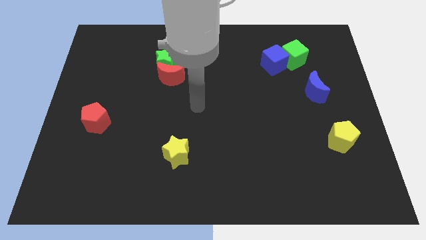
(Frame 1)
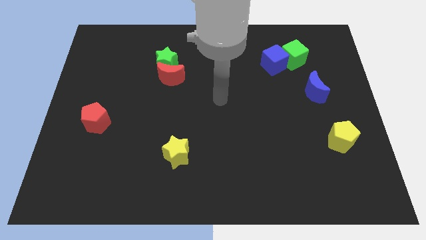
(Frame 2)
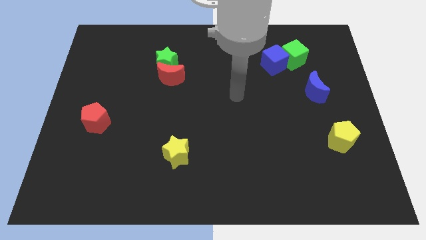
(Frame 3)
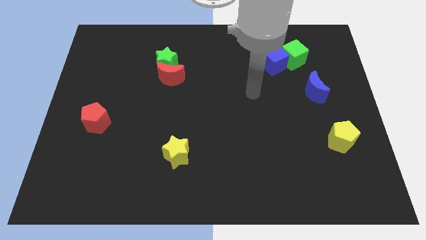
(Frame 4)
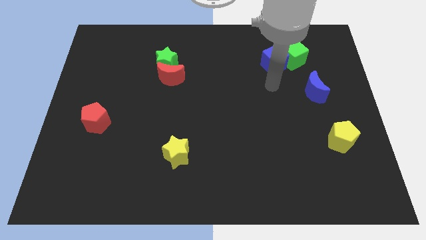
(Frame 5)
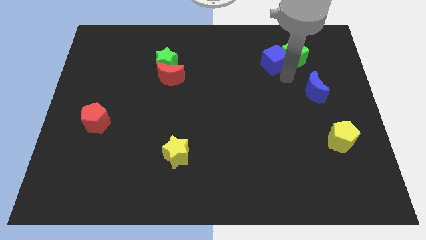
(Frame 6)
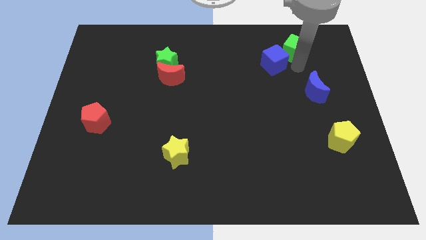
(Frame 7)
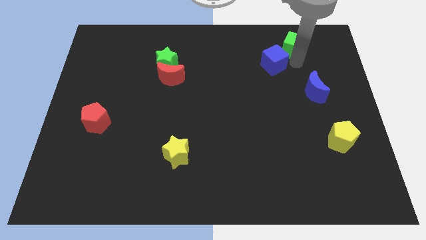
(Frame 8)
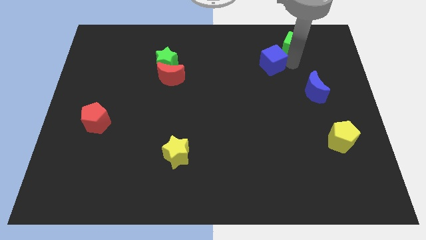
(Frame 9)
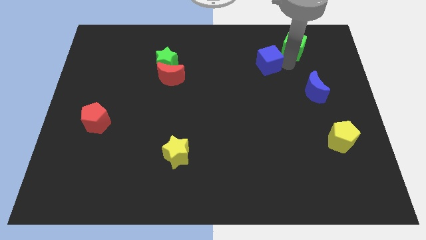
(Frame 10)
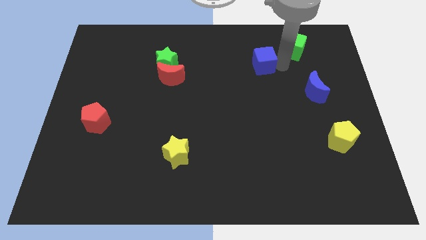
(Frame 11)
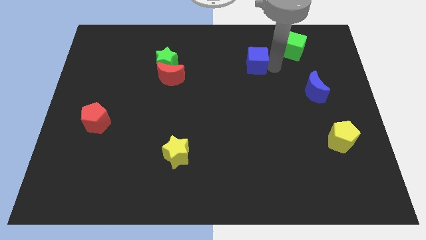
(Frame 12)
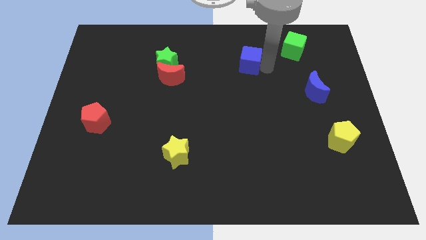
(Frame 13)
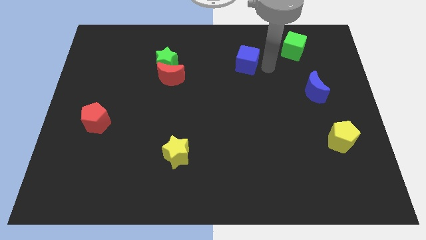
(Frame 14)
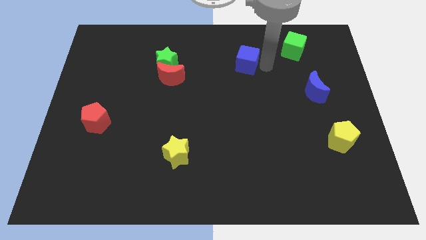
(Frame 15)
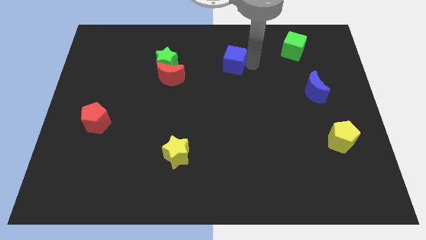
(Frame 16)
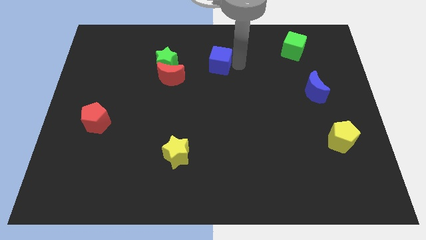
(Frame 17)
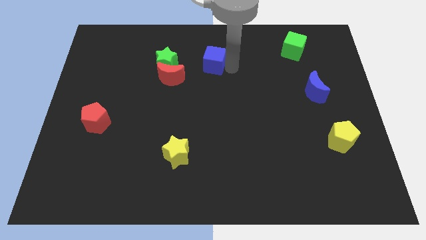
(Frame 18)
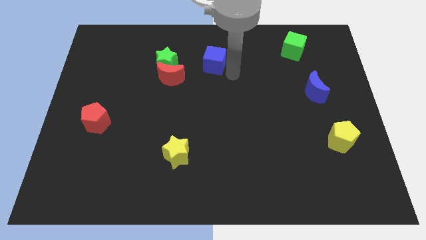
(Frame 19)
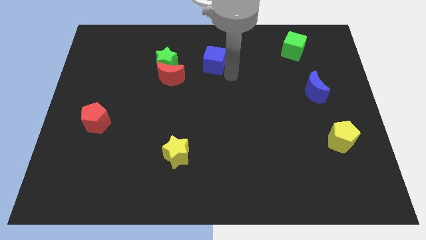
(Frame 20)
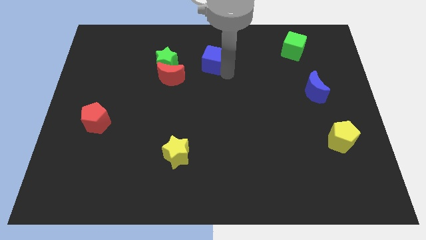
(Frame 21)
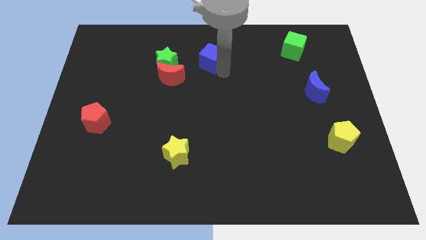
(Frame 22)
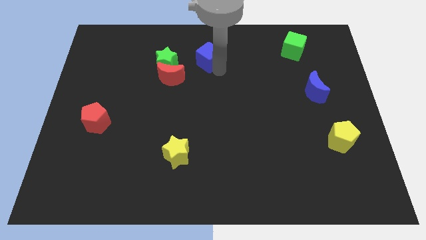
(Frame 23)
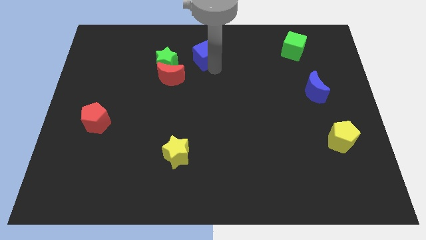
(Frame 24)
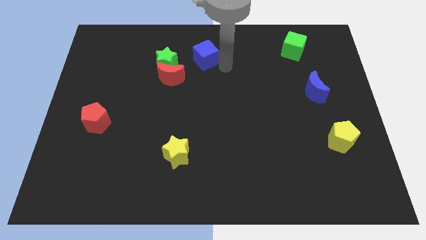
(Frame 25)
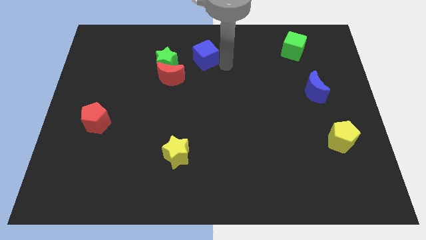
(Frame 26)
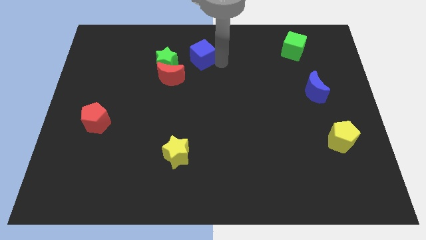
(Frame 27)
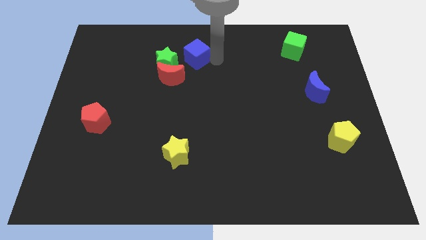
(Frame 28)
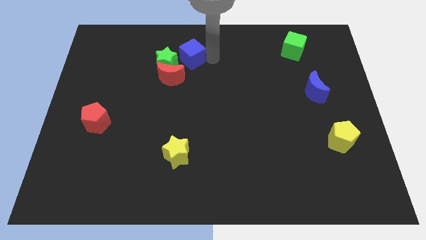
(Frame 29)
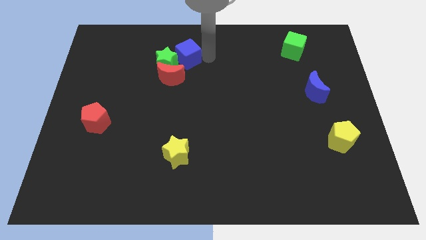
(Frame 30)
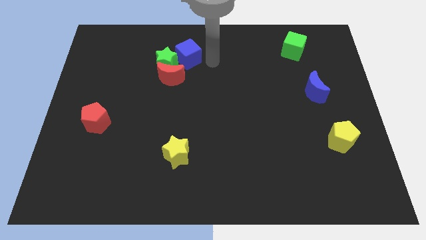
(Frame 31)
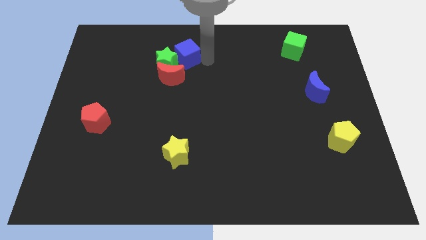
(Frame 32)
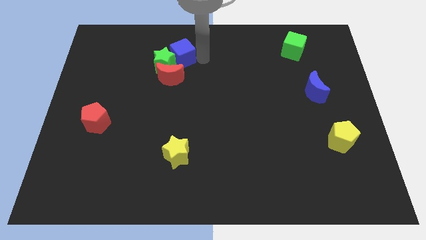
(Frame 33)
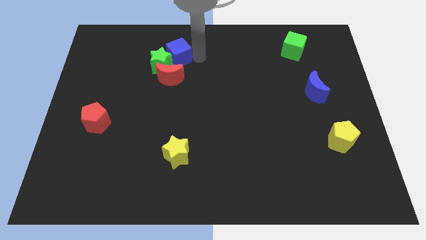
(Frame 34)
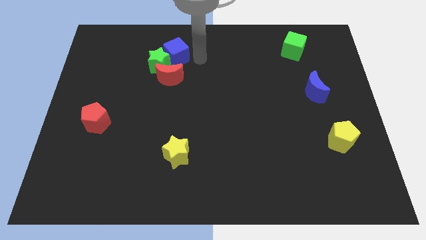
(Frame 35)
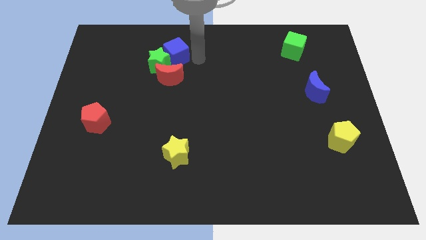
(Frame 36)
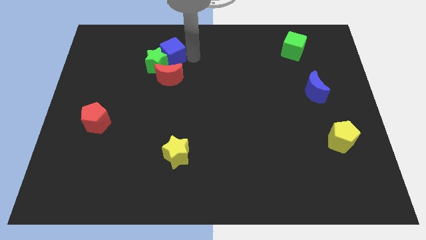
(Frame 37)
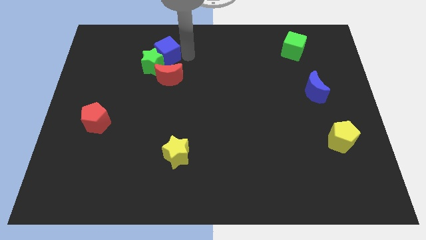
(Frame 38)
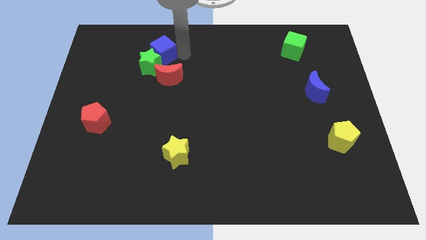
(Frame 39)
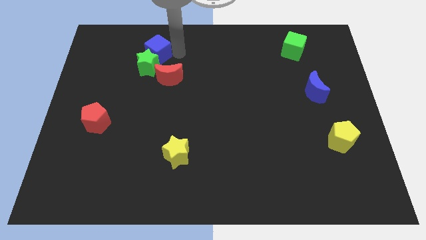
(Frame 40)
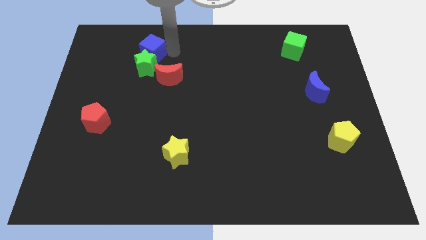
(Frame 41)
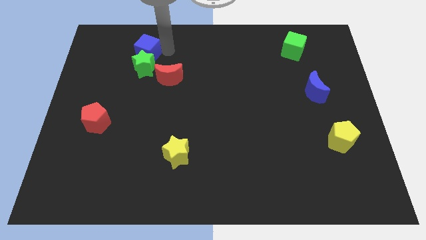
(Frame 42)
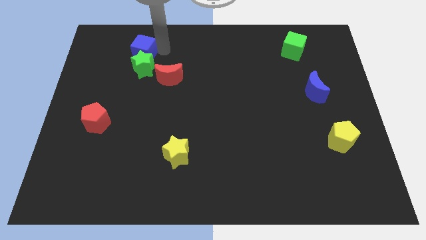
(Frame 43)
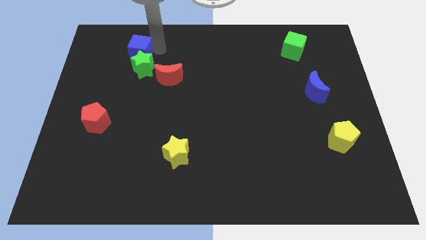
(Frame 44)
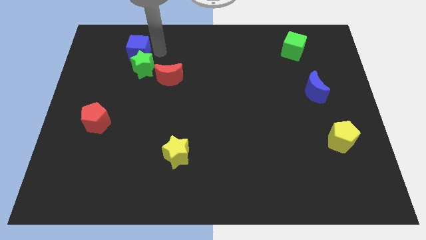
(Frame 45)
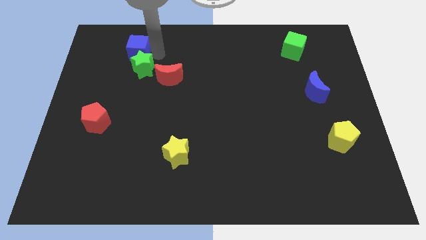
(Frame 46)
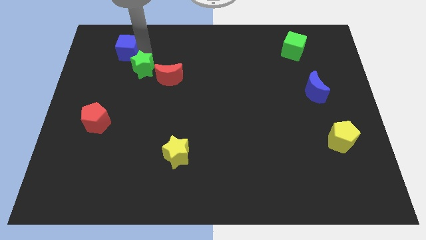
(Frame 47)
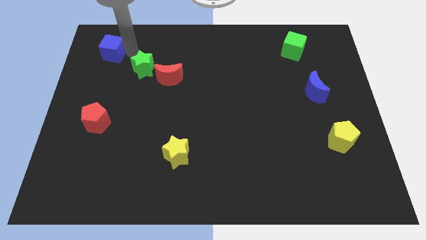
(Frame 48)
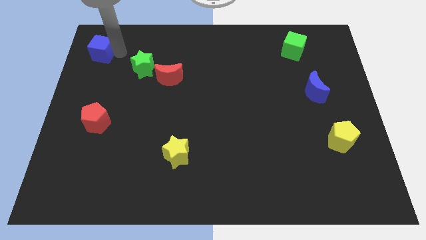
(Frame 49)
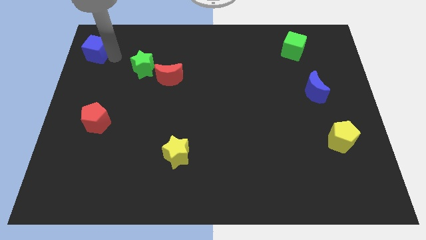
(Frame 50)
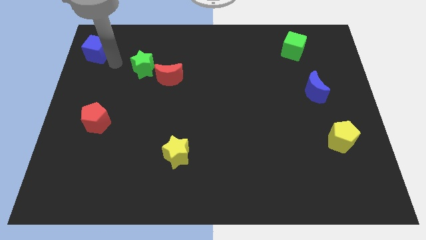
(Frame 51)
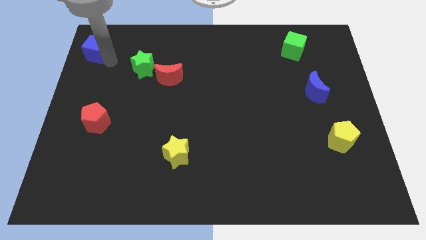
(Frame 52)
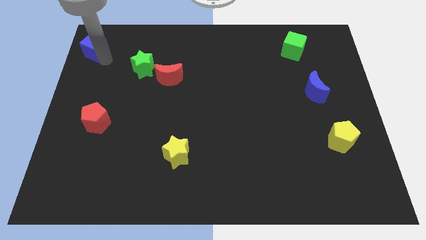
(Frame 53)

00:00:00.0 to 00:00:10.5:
slide the blue cube to the top left

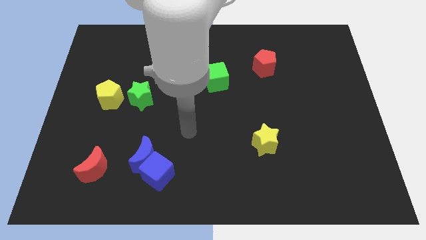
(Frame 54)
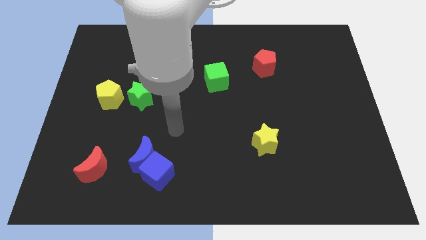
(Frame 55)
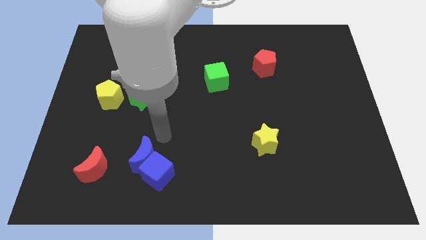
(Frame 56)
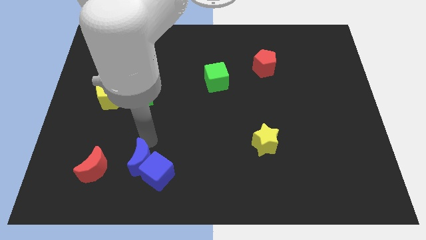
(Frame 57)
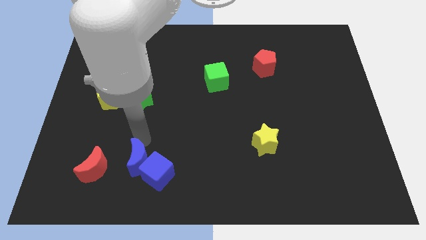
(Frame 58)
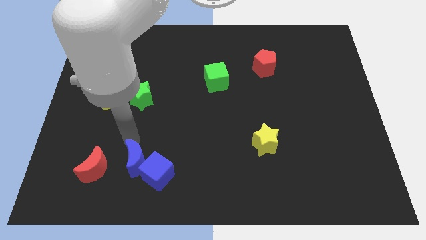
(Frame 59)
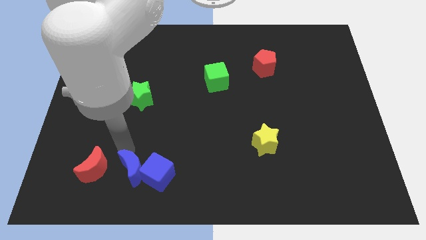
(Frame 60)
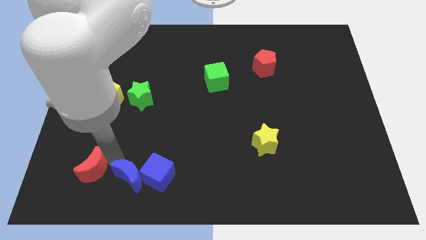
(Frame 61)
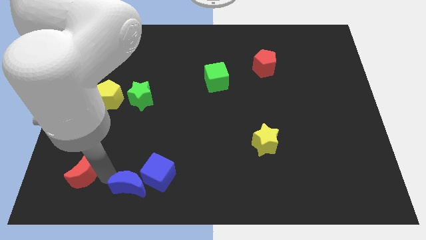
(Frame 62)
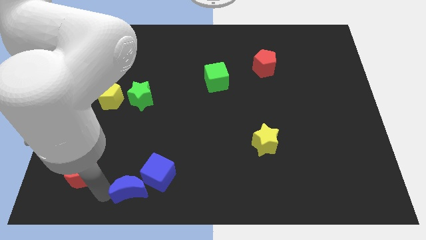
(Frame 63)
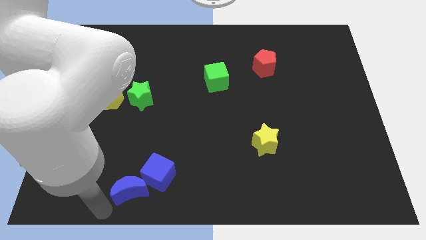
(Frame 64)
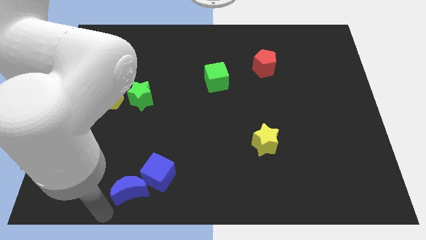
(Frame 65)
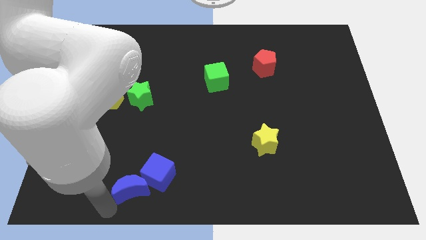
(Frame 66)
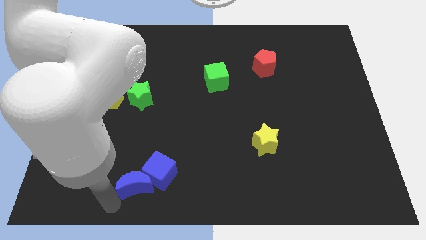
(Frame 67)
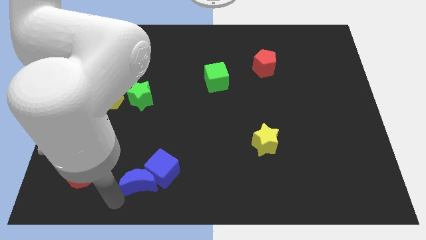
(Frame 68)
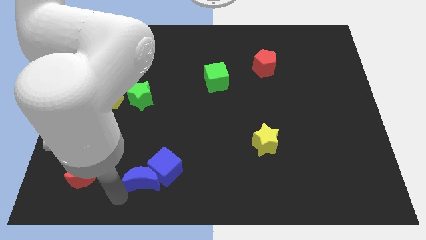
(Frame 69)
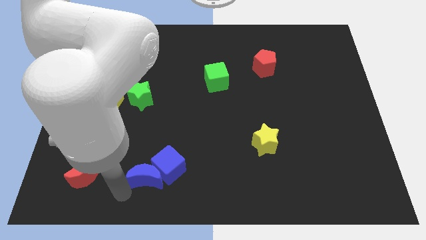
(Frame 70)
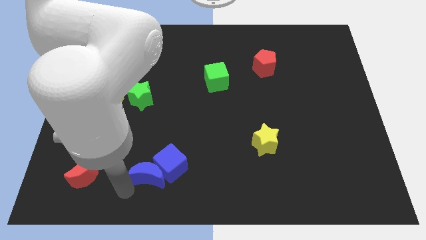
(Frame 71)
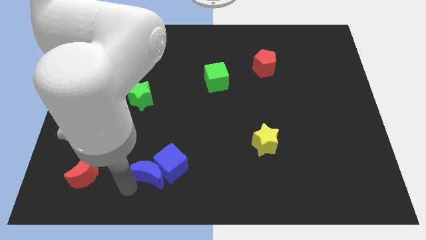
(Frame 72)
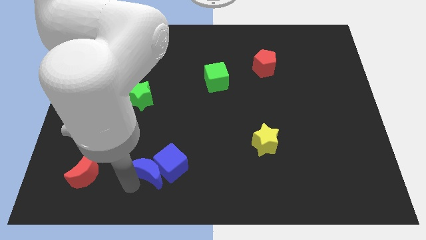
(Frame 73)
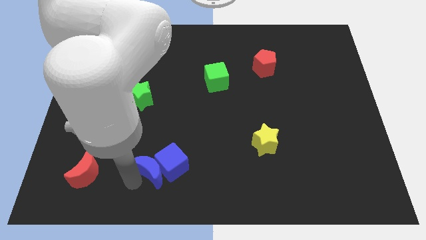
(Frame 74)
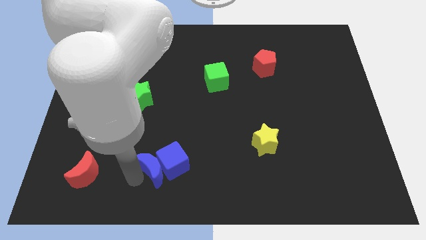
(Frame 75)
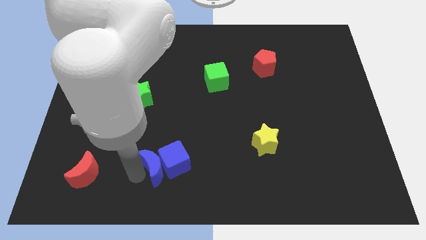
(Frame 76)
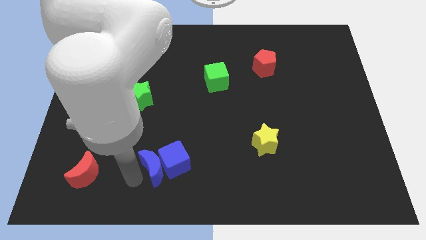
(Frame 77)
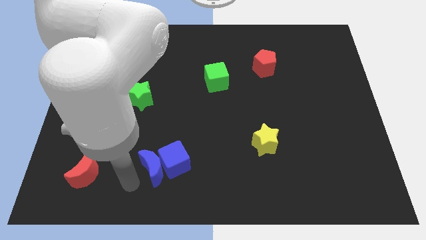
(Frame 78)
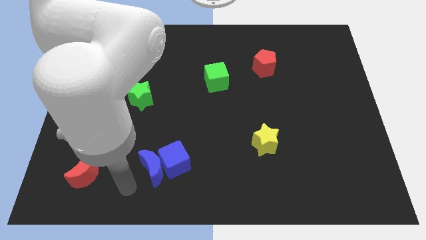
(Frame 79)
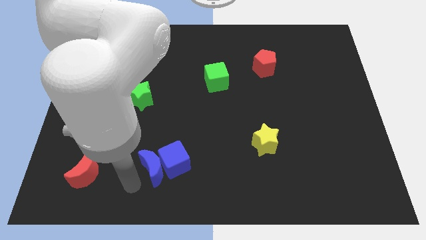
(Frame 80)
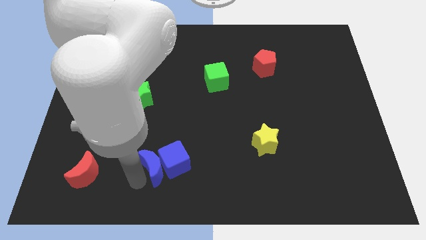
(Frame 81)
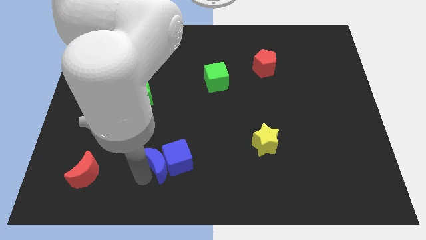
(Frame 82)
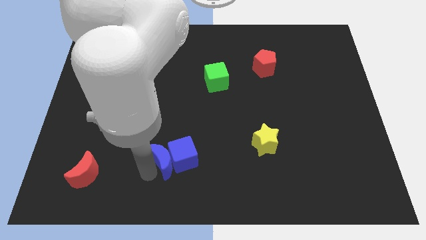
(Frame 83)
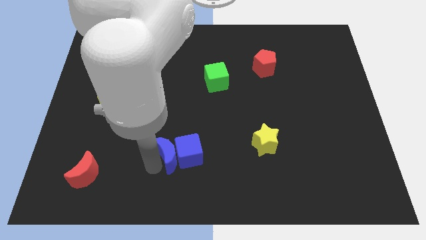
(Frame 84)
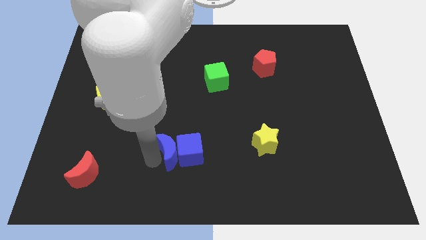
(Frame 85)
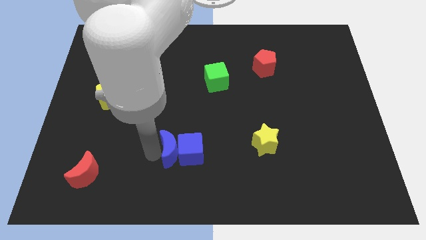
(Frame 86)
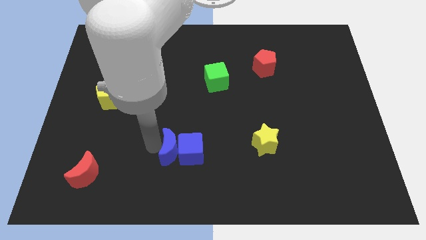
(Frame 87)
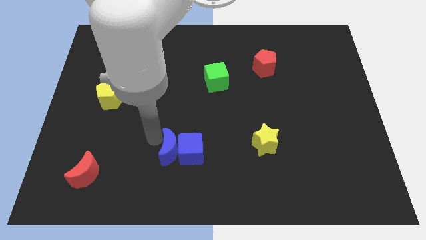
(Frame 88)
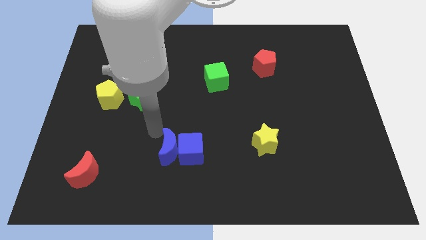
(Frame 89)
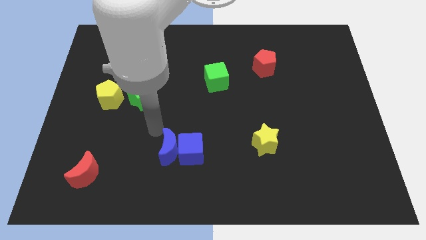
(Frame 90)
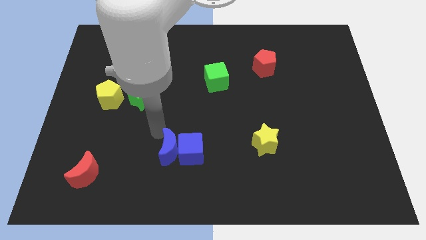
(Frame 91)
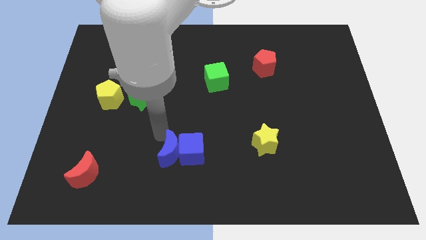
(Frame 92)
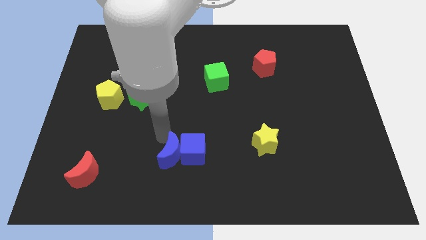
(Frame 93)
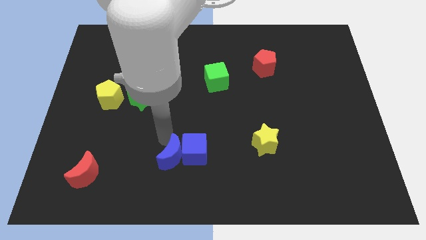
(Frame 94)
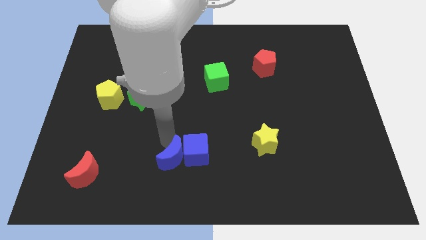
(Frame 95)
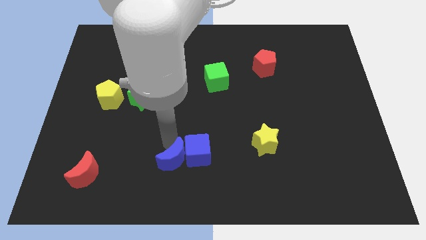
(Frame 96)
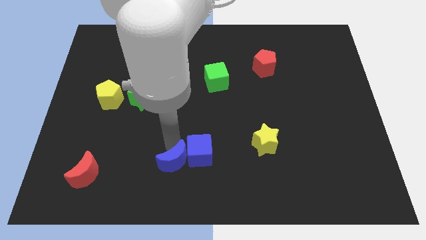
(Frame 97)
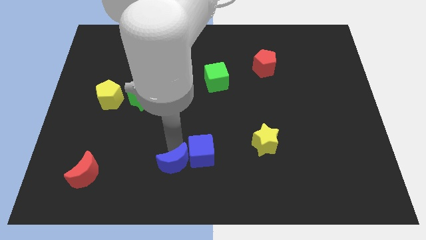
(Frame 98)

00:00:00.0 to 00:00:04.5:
move the blue moon to the bottom side
